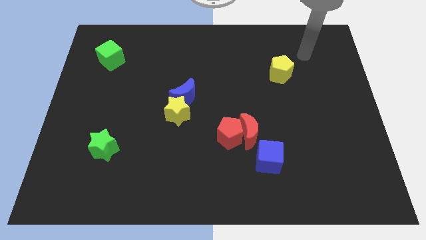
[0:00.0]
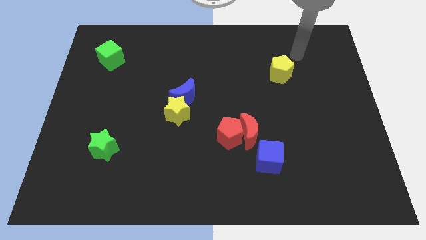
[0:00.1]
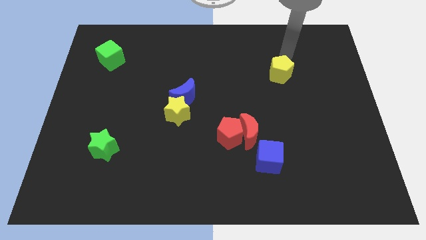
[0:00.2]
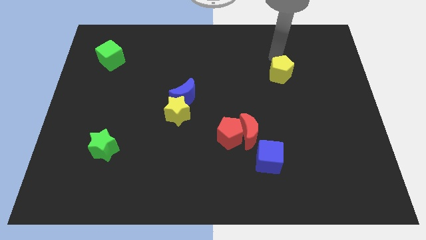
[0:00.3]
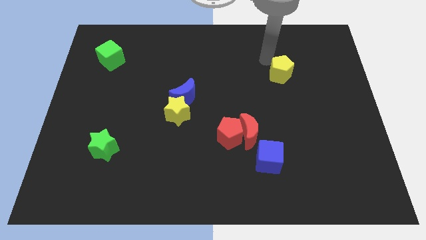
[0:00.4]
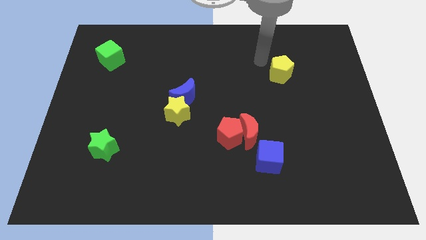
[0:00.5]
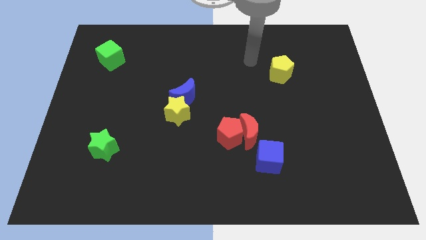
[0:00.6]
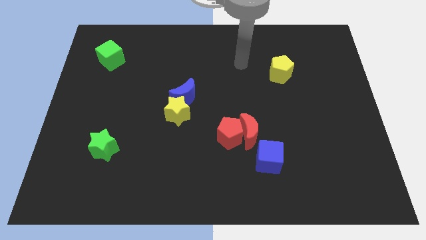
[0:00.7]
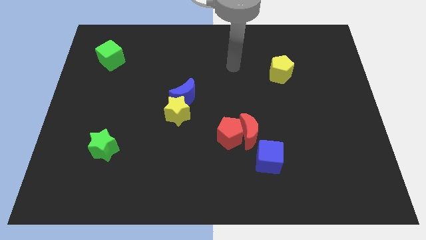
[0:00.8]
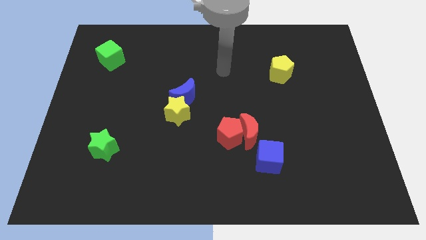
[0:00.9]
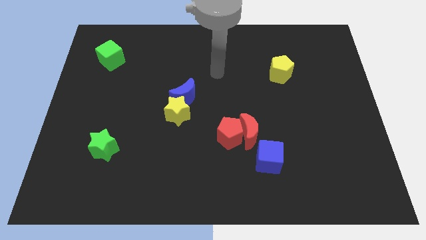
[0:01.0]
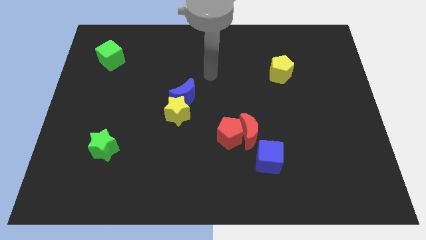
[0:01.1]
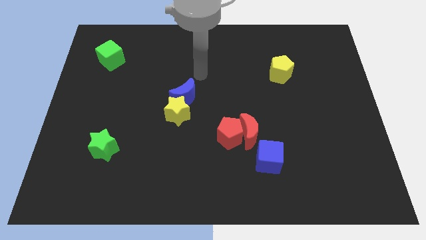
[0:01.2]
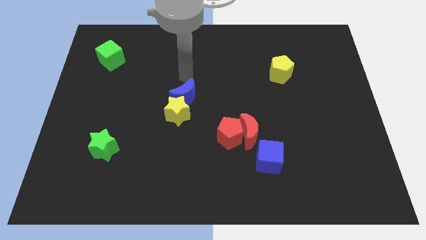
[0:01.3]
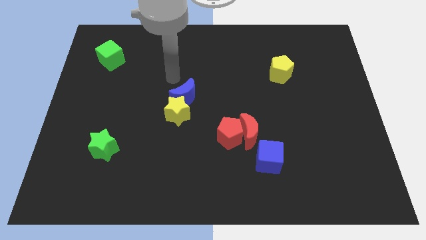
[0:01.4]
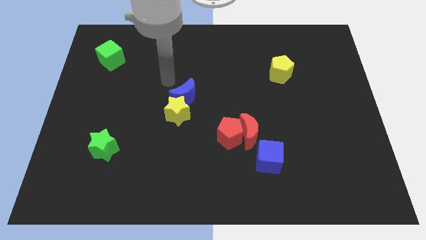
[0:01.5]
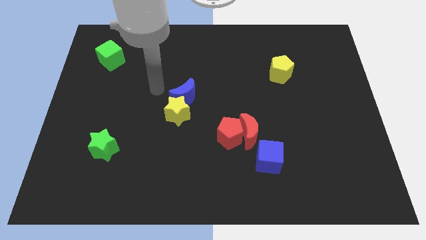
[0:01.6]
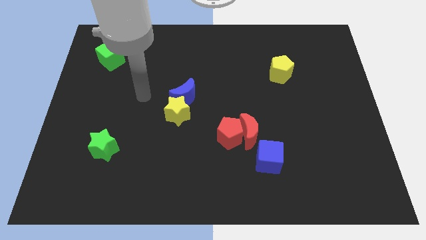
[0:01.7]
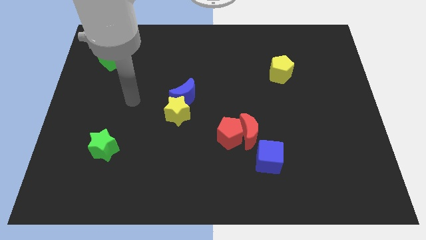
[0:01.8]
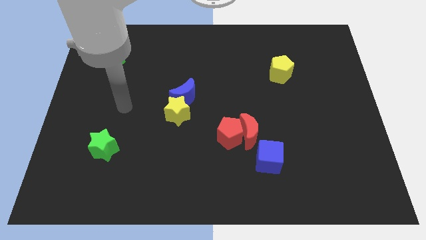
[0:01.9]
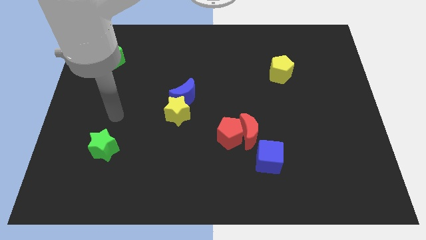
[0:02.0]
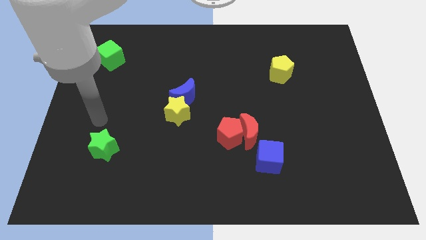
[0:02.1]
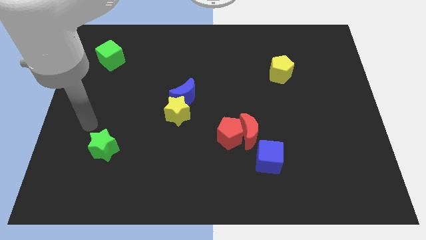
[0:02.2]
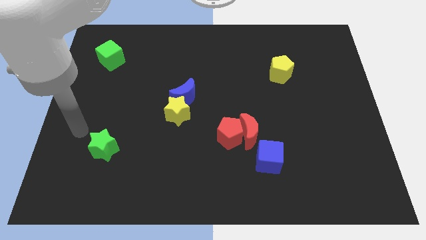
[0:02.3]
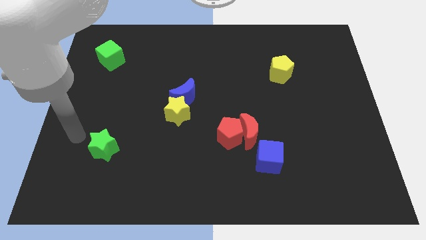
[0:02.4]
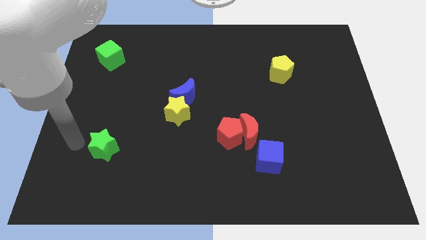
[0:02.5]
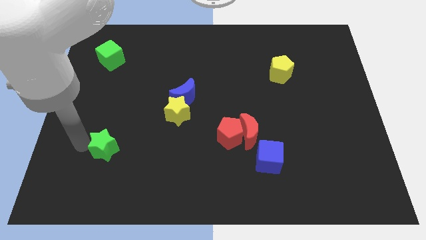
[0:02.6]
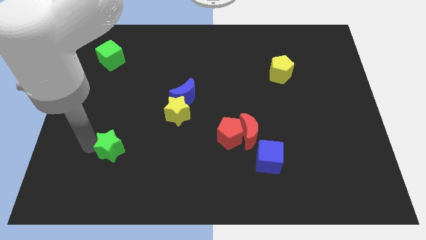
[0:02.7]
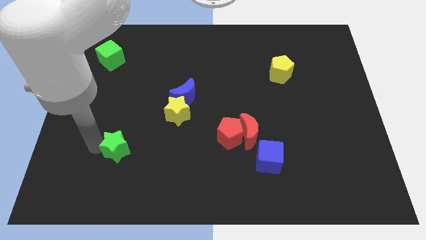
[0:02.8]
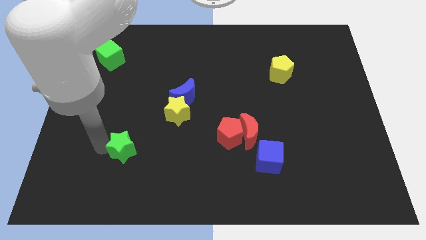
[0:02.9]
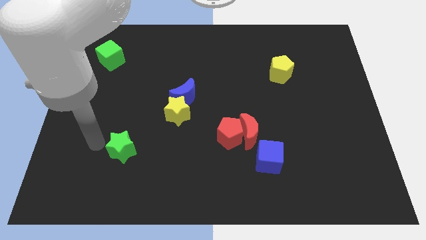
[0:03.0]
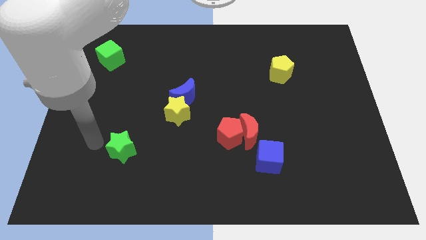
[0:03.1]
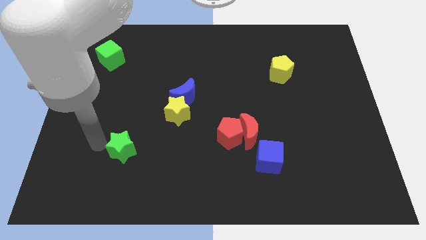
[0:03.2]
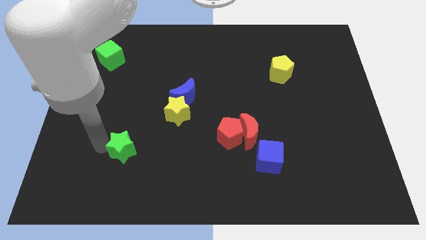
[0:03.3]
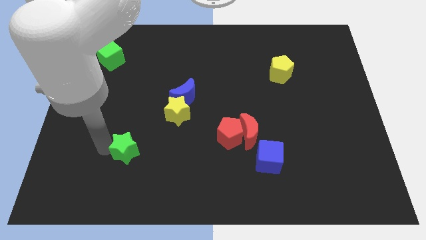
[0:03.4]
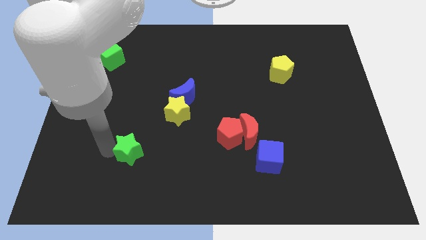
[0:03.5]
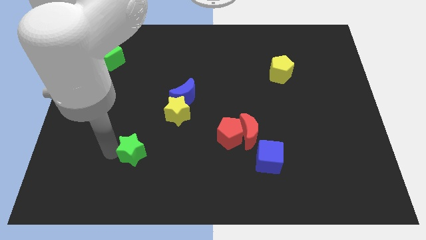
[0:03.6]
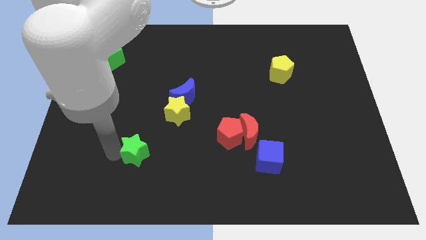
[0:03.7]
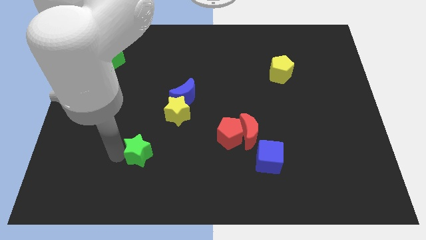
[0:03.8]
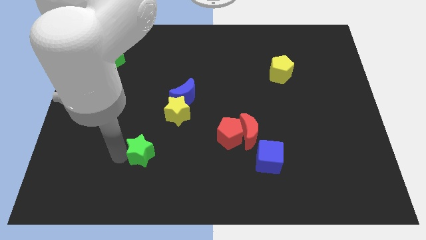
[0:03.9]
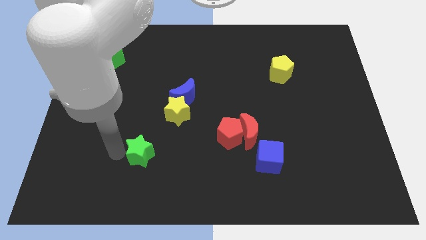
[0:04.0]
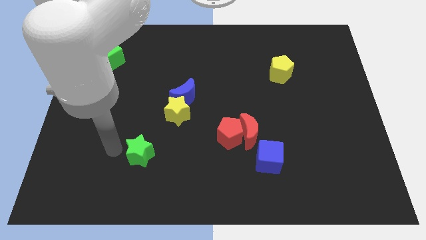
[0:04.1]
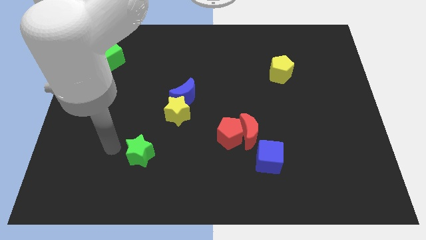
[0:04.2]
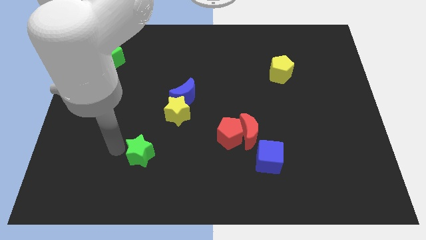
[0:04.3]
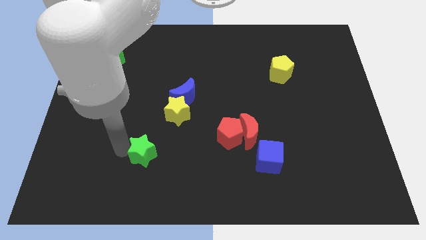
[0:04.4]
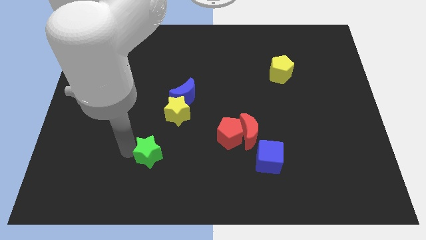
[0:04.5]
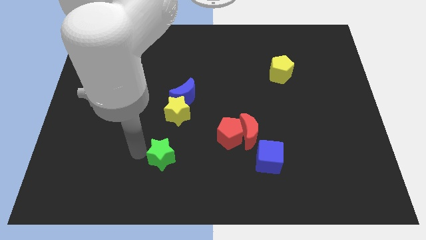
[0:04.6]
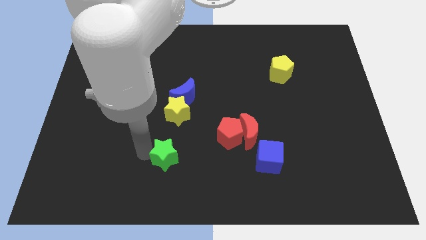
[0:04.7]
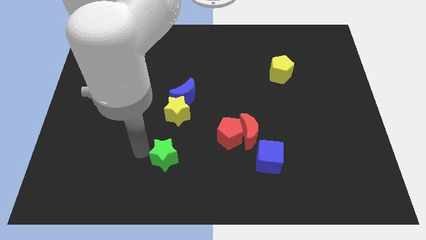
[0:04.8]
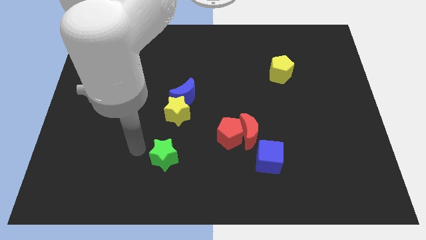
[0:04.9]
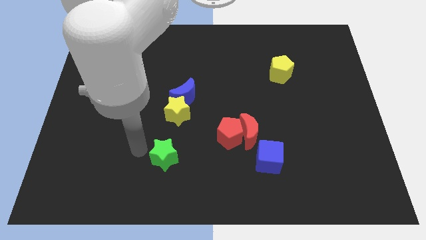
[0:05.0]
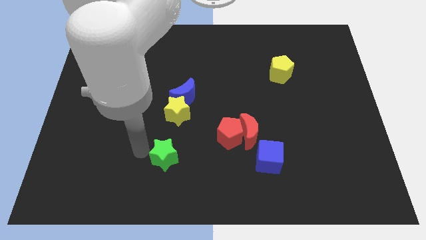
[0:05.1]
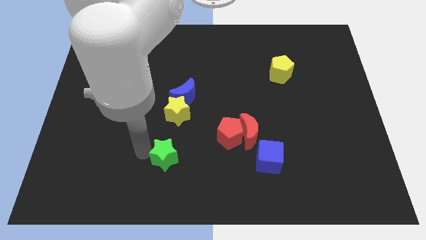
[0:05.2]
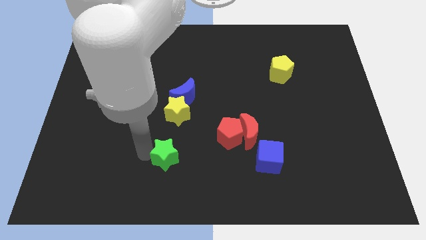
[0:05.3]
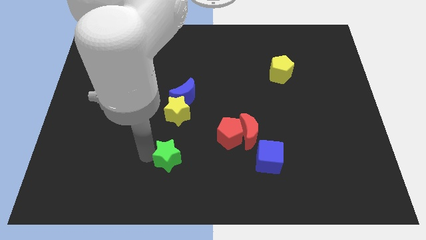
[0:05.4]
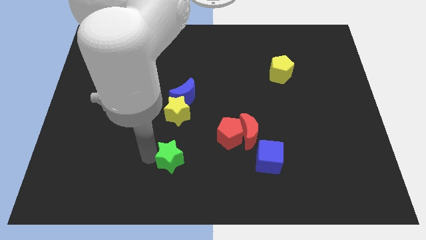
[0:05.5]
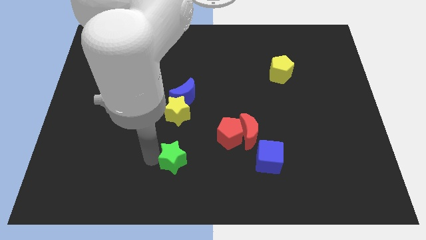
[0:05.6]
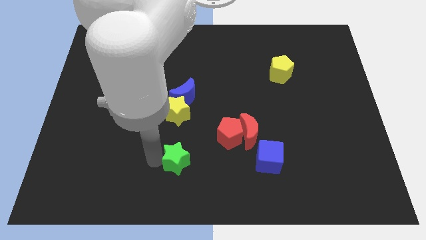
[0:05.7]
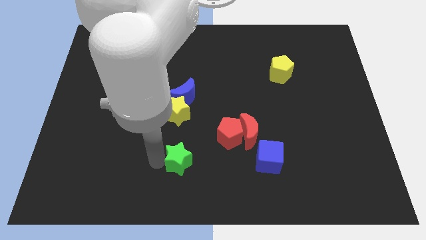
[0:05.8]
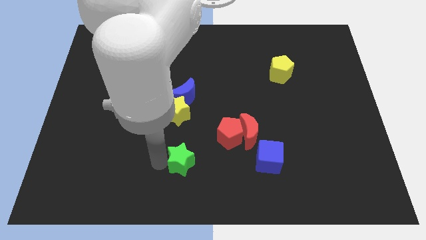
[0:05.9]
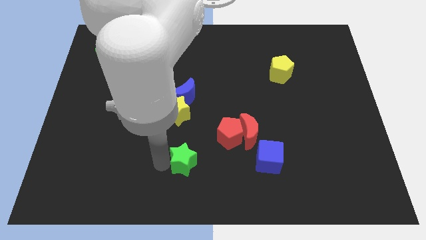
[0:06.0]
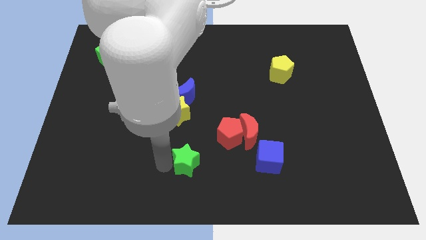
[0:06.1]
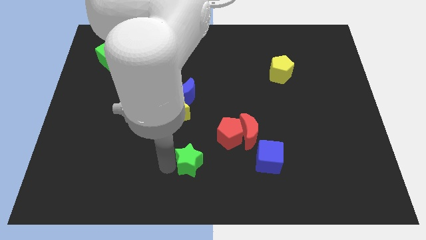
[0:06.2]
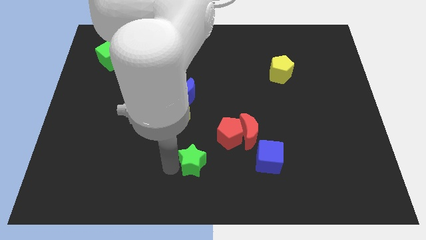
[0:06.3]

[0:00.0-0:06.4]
put the green star left of the blue cube

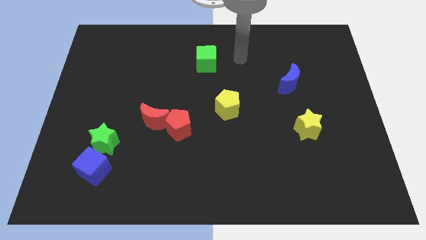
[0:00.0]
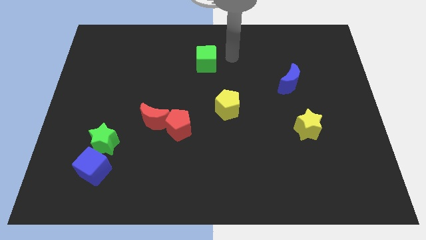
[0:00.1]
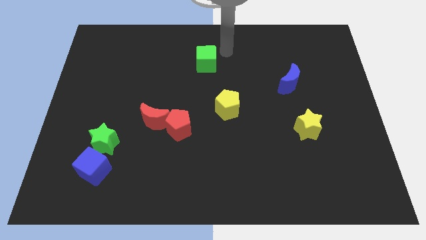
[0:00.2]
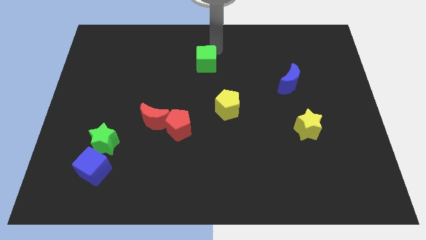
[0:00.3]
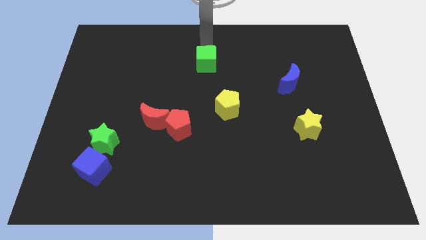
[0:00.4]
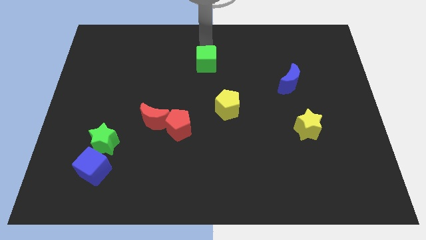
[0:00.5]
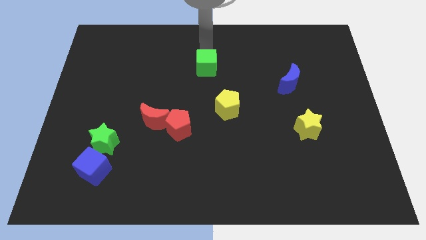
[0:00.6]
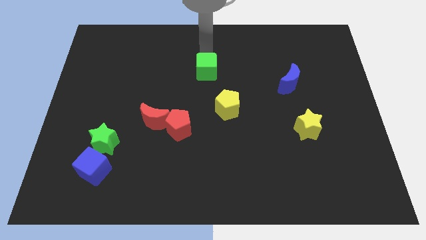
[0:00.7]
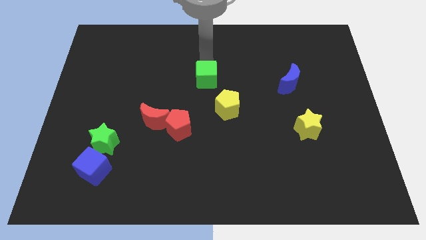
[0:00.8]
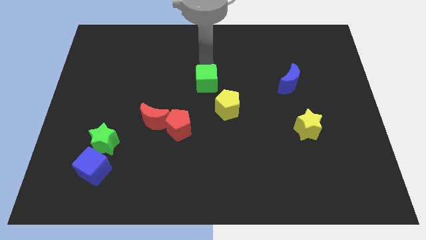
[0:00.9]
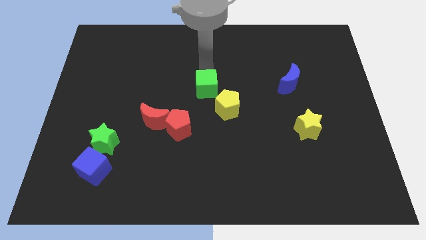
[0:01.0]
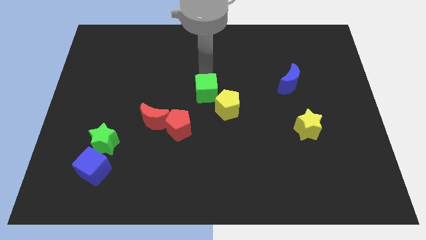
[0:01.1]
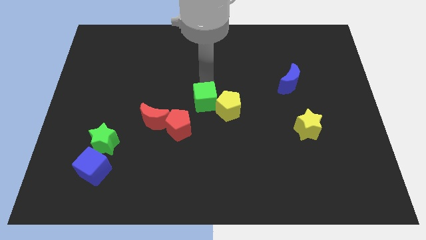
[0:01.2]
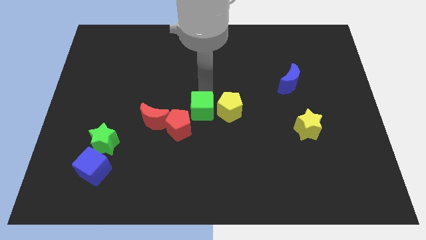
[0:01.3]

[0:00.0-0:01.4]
slide the green cube to the bottom left side of the yellow pentagon
